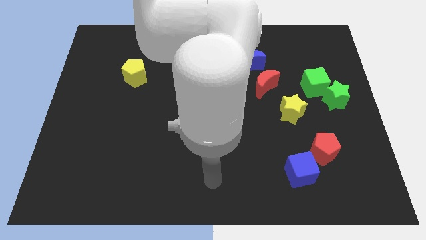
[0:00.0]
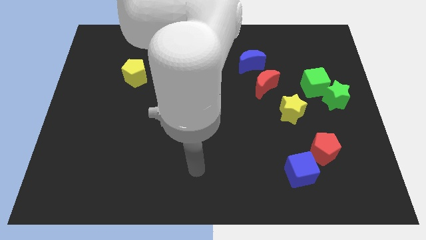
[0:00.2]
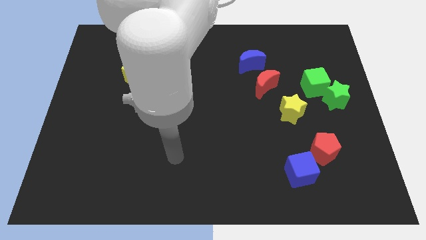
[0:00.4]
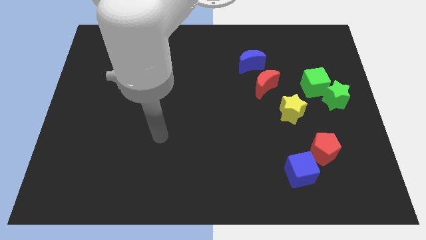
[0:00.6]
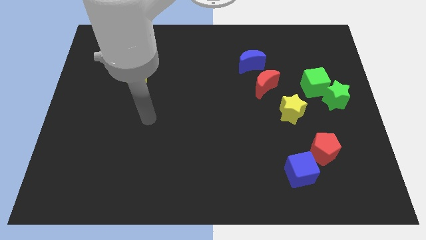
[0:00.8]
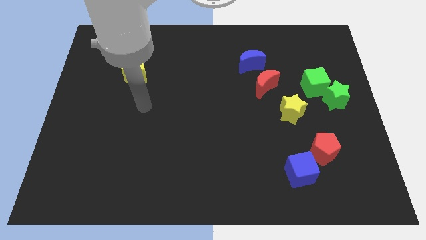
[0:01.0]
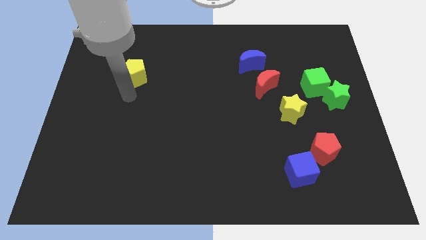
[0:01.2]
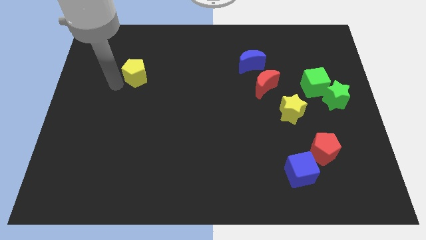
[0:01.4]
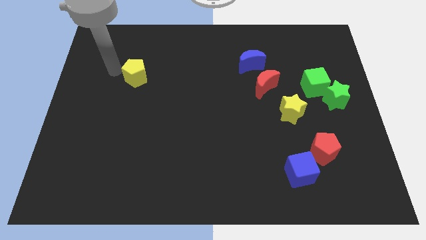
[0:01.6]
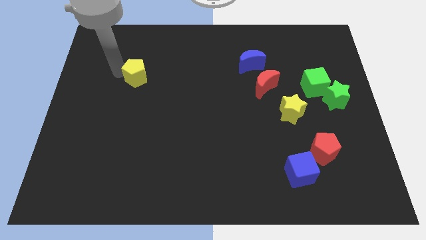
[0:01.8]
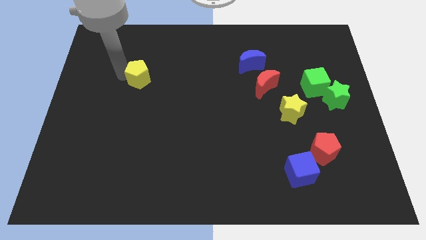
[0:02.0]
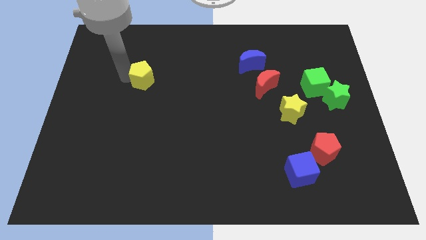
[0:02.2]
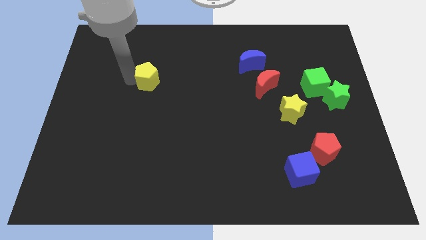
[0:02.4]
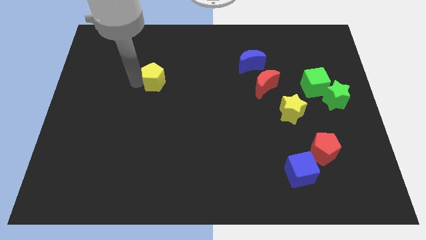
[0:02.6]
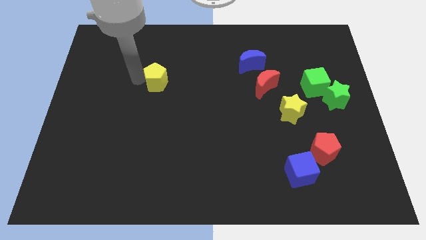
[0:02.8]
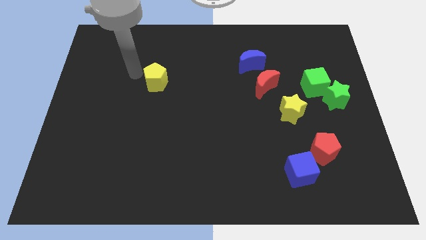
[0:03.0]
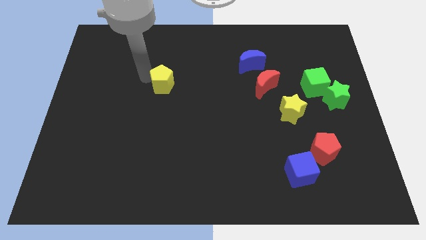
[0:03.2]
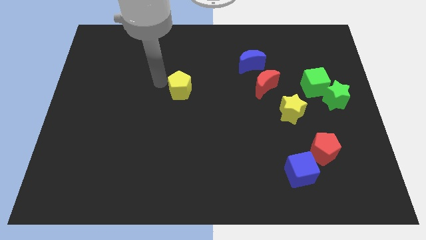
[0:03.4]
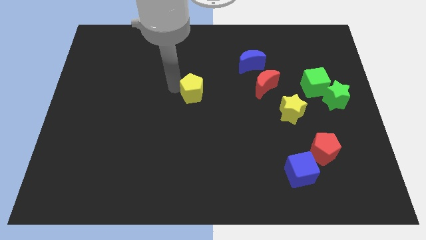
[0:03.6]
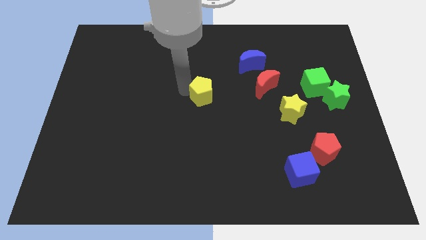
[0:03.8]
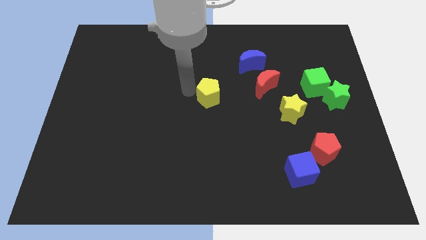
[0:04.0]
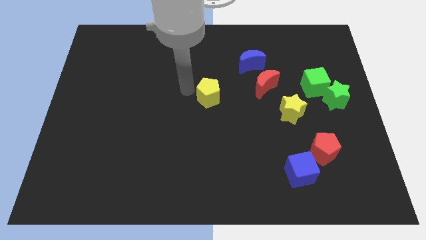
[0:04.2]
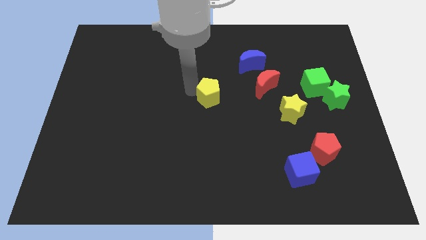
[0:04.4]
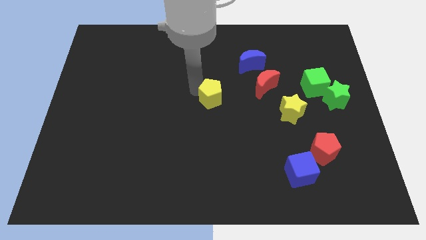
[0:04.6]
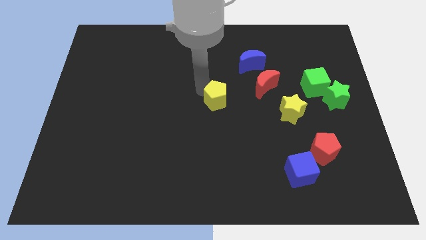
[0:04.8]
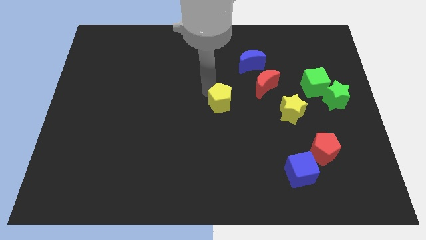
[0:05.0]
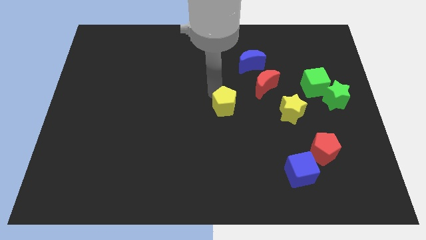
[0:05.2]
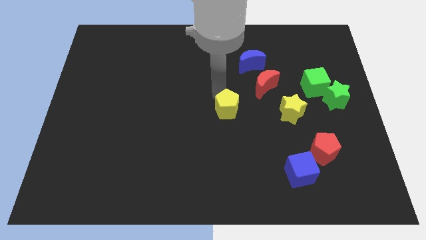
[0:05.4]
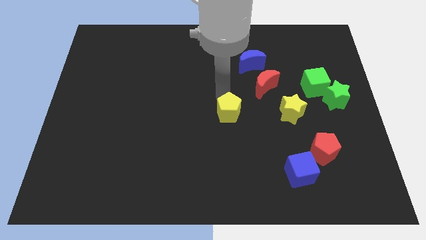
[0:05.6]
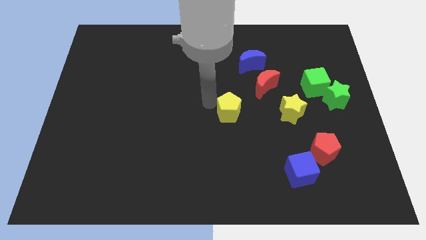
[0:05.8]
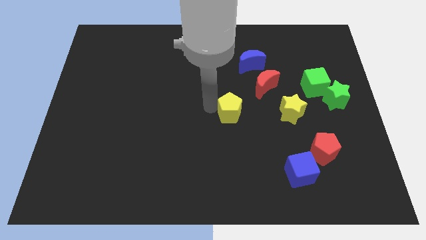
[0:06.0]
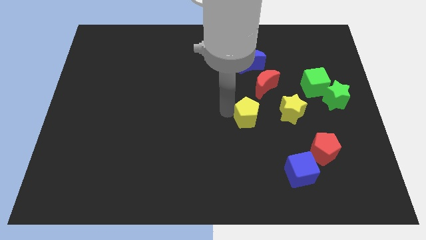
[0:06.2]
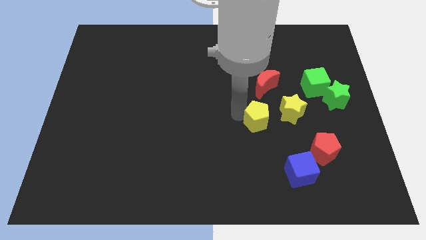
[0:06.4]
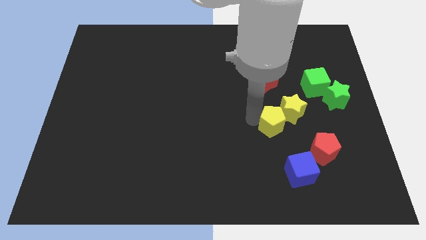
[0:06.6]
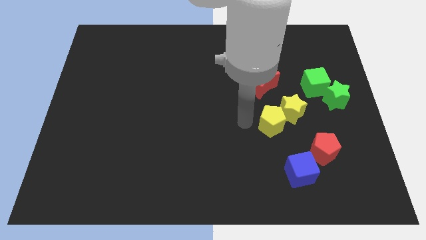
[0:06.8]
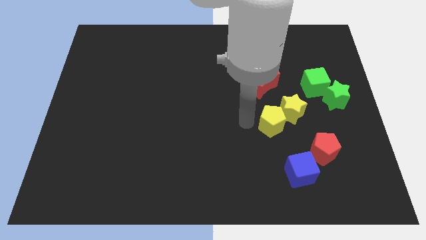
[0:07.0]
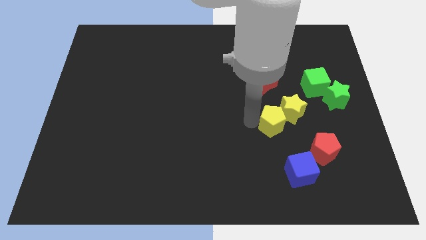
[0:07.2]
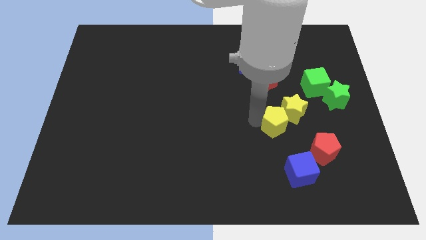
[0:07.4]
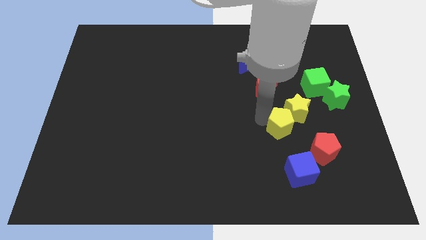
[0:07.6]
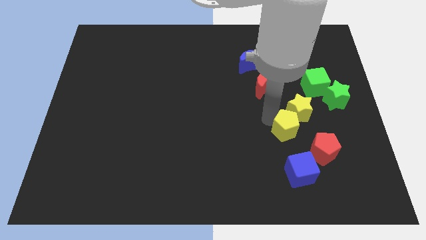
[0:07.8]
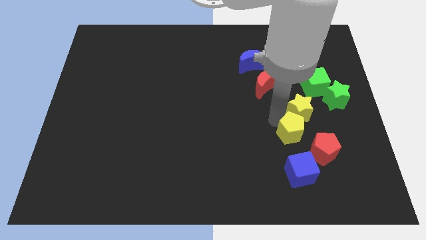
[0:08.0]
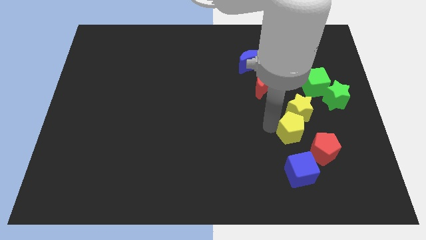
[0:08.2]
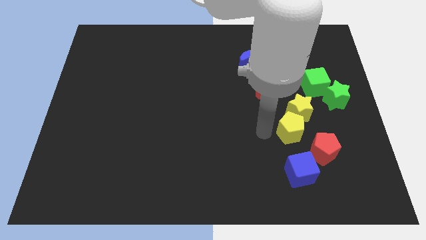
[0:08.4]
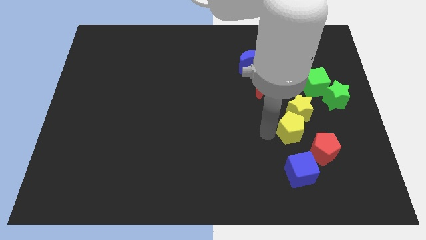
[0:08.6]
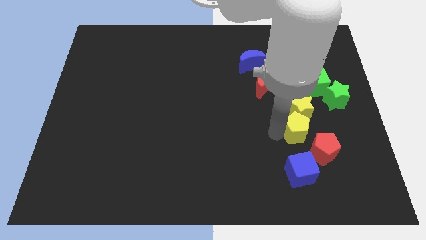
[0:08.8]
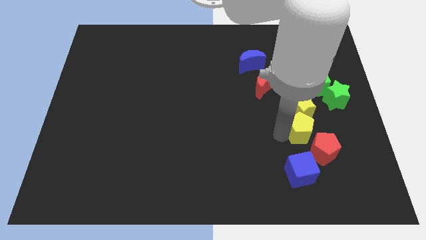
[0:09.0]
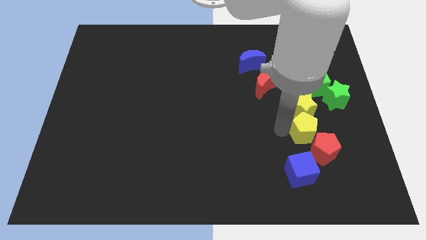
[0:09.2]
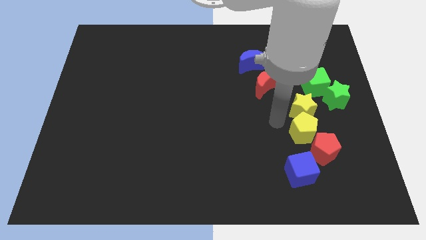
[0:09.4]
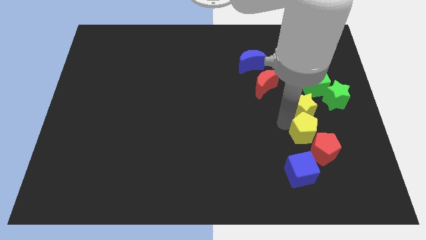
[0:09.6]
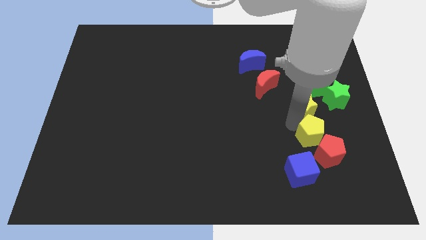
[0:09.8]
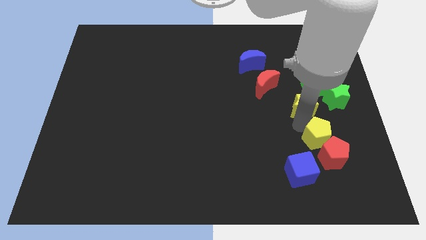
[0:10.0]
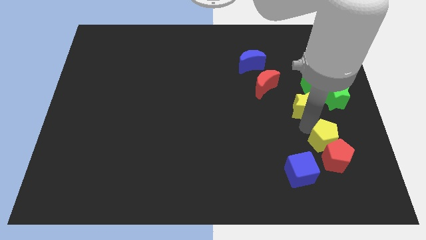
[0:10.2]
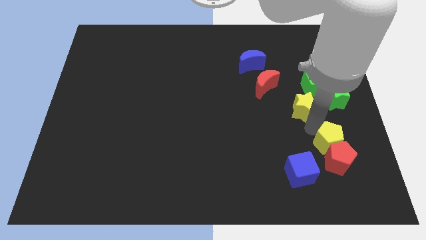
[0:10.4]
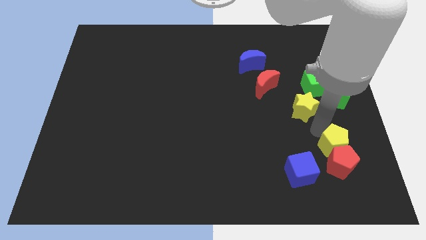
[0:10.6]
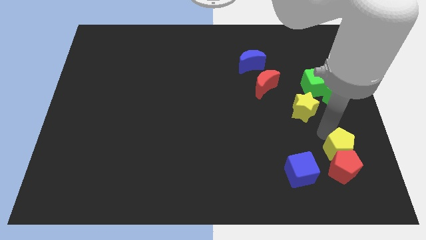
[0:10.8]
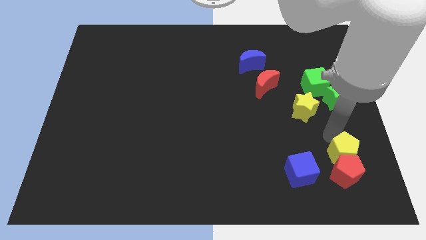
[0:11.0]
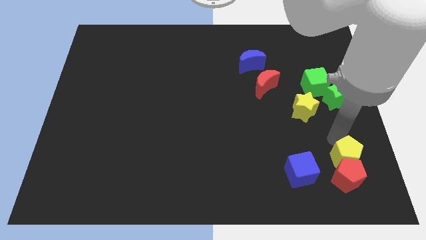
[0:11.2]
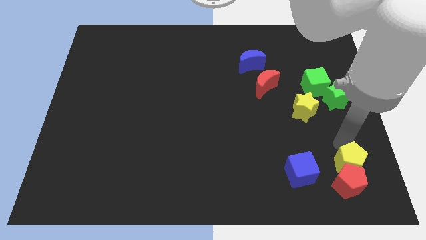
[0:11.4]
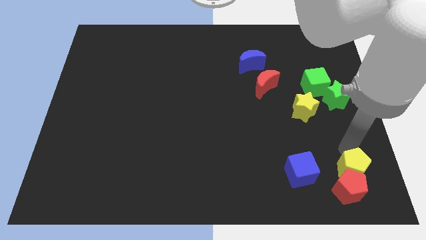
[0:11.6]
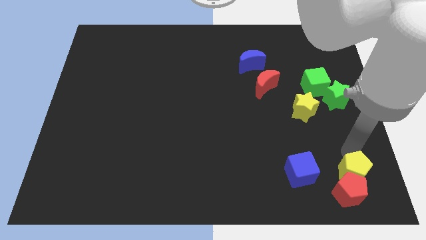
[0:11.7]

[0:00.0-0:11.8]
move the yellow pentagon to the bottom right
